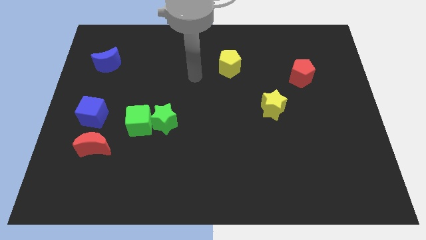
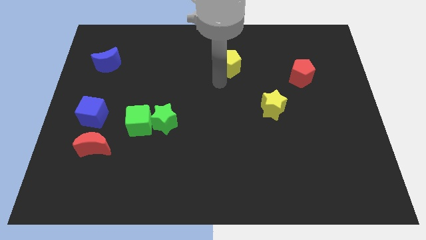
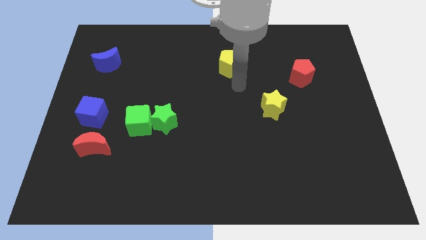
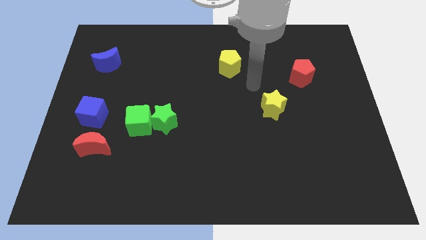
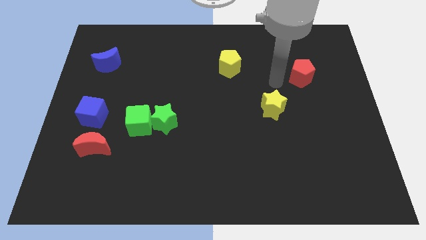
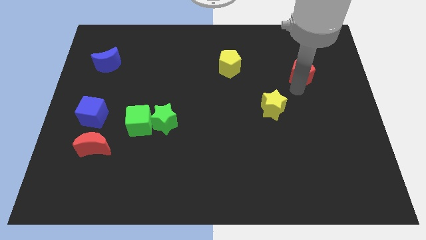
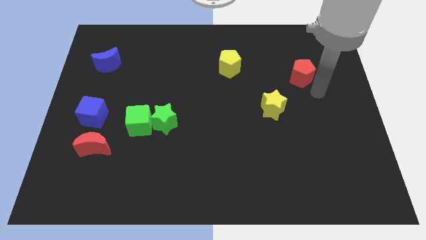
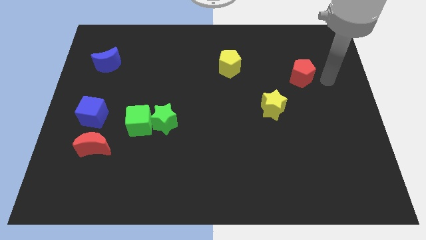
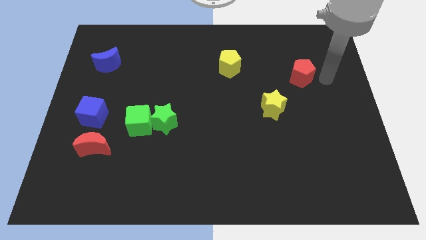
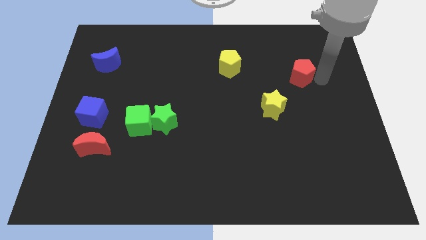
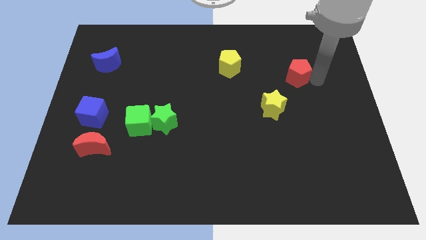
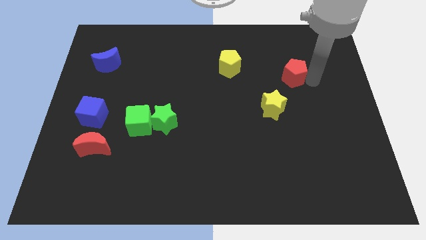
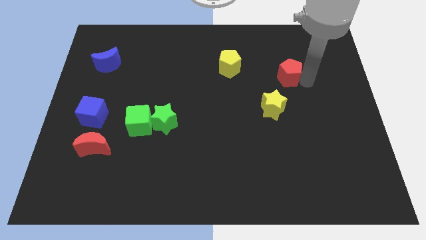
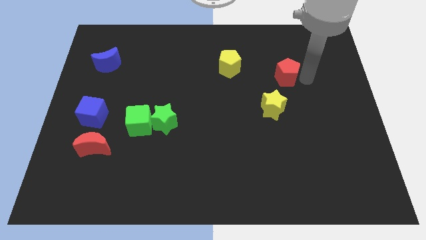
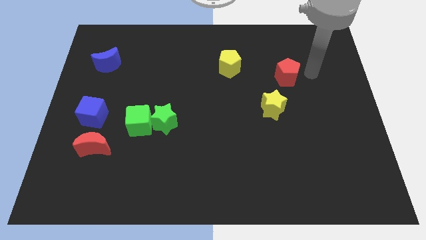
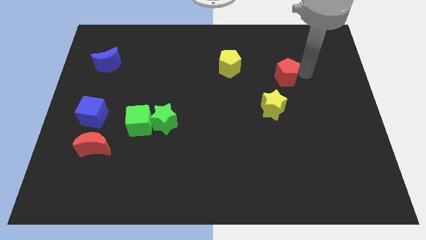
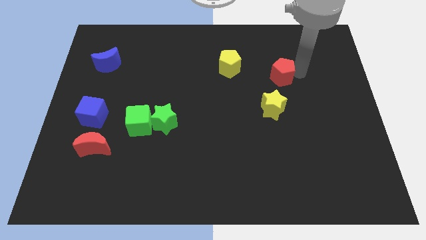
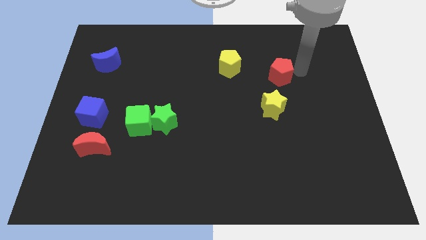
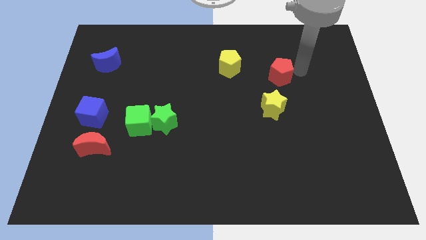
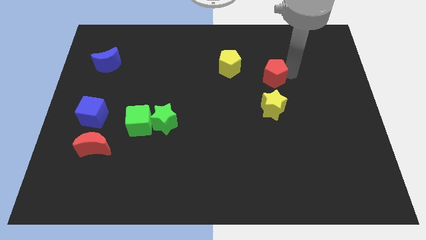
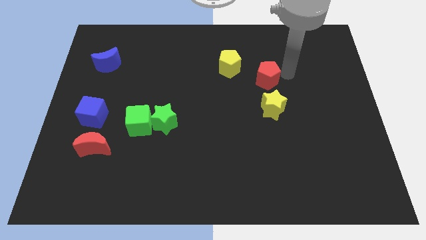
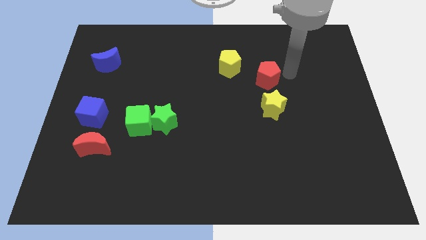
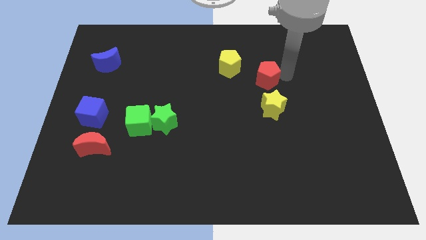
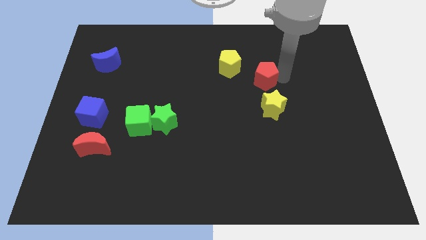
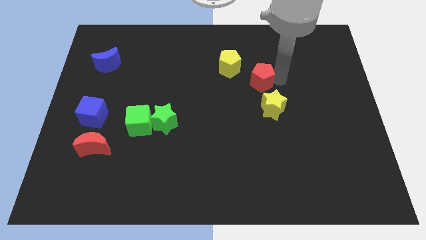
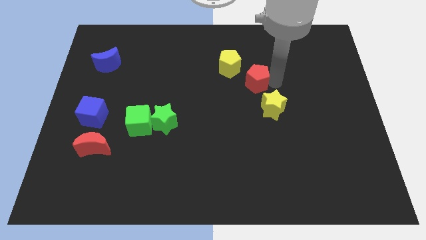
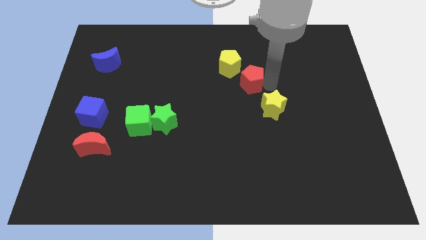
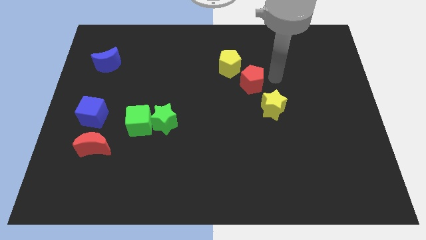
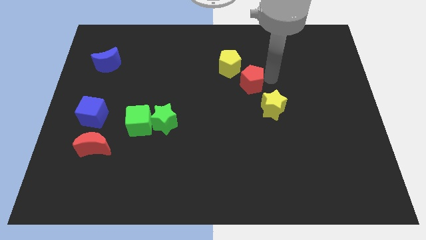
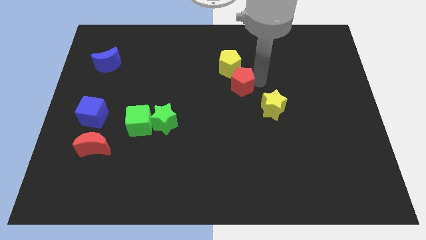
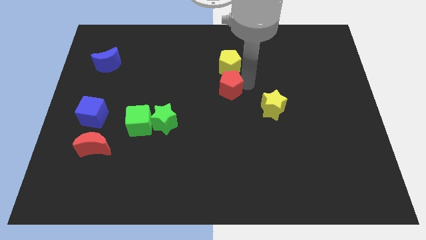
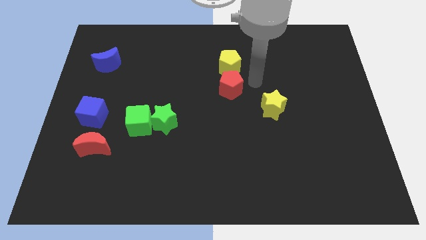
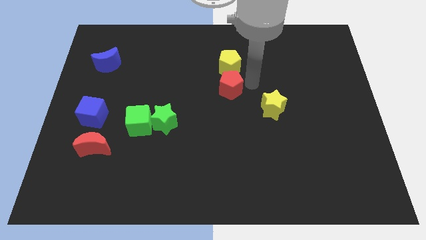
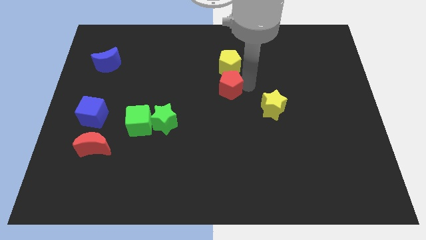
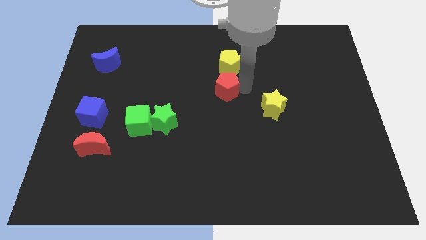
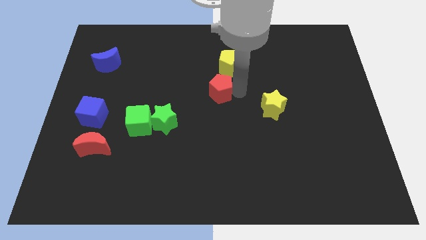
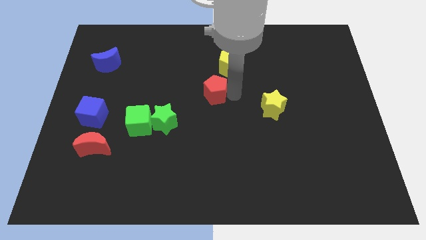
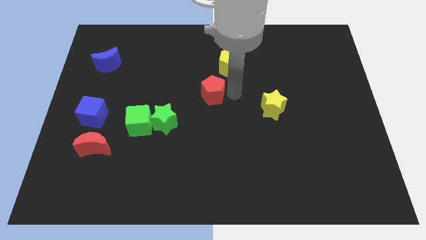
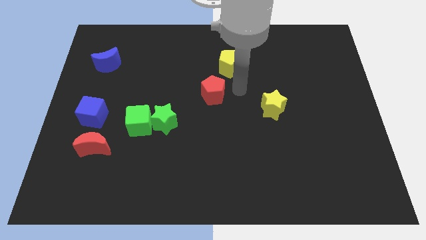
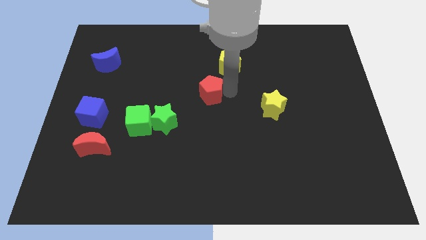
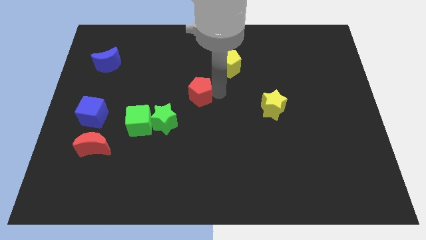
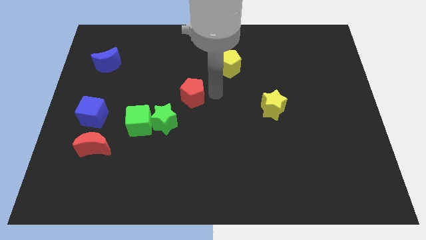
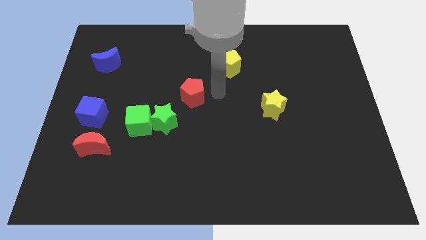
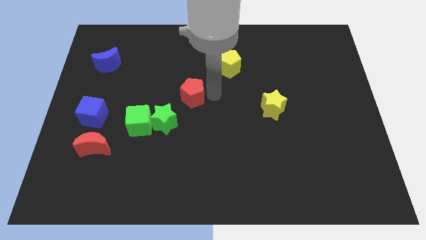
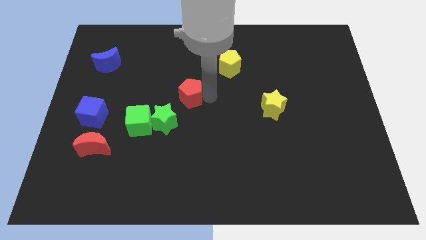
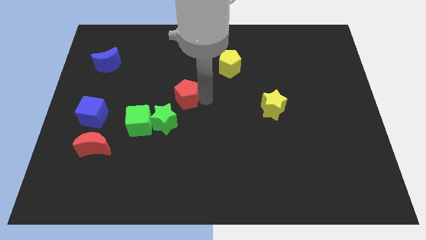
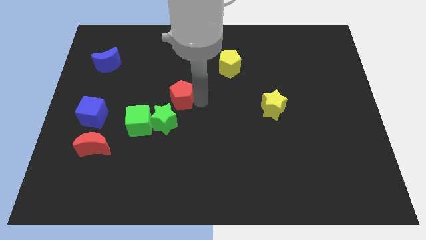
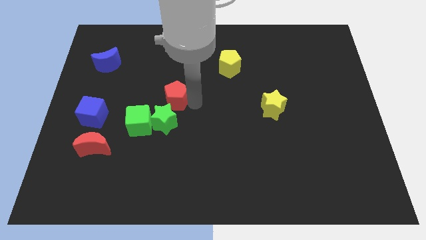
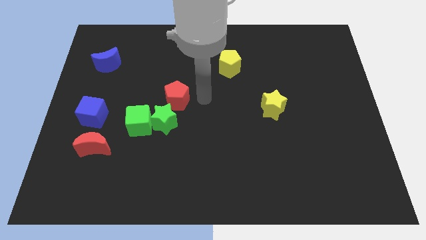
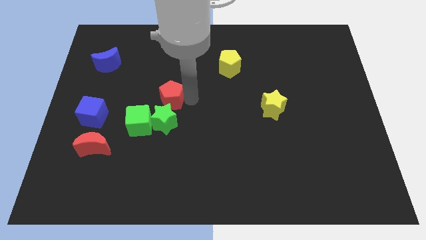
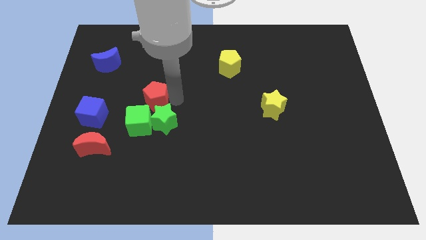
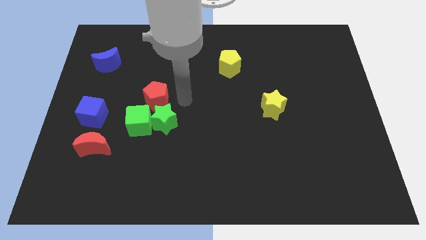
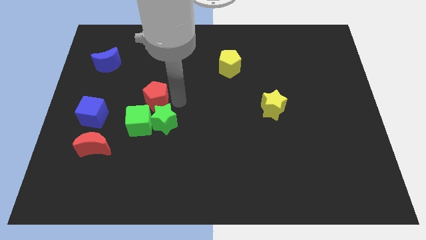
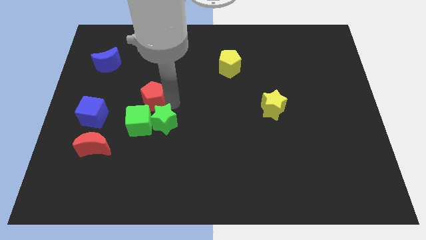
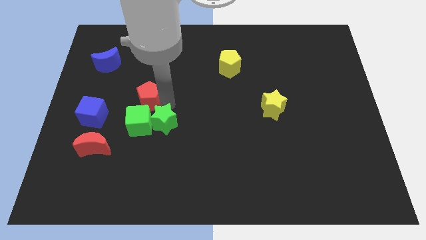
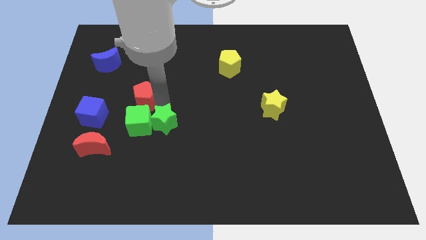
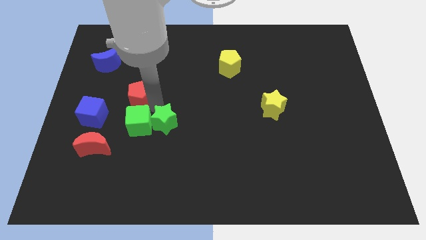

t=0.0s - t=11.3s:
put the red pentagon to the top right of the blue cube

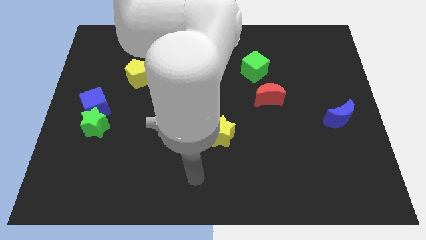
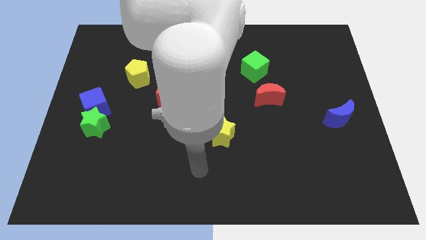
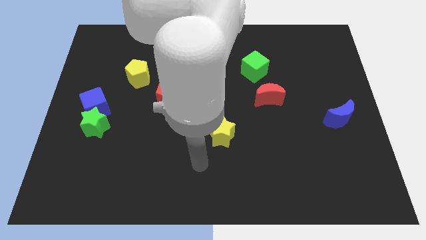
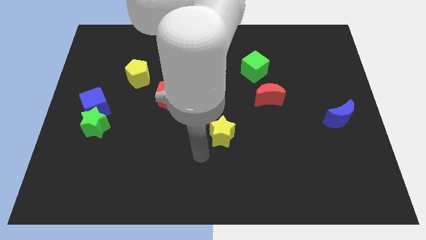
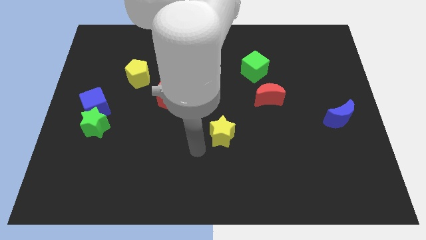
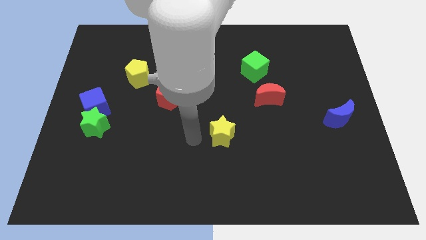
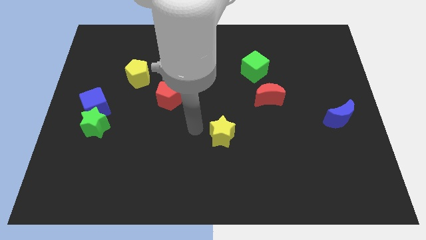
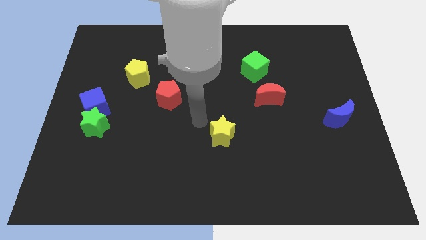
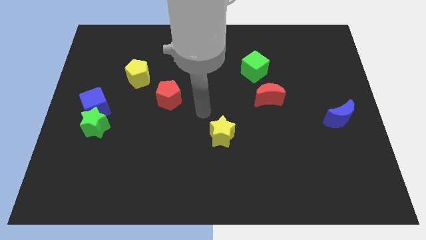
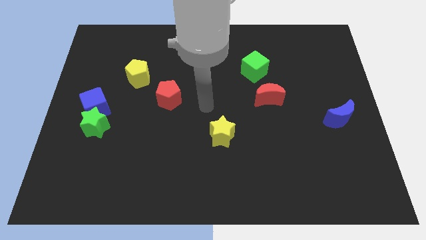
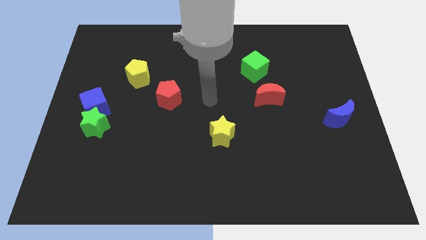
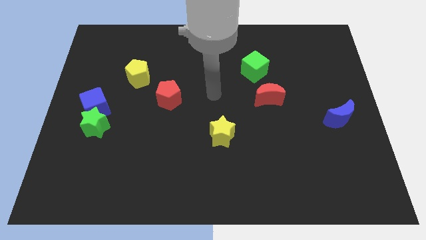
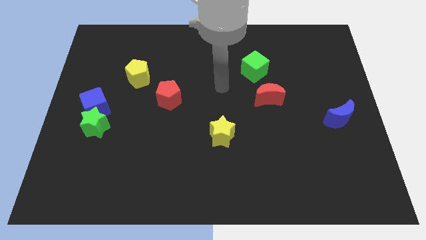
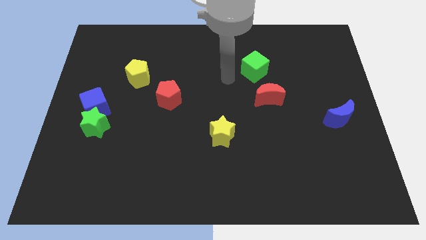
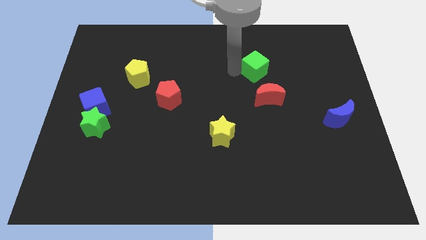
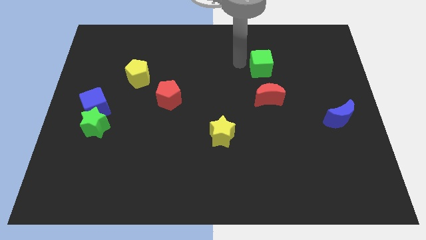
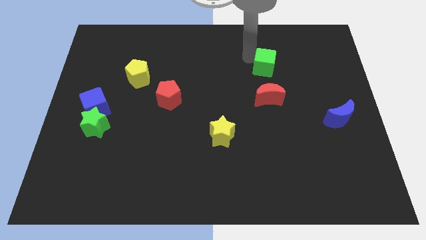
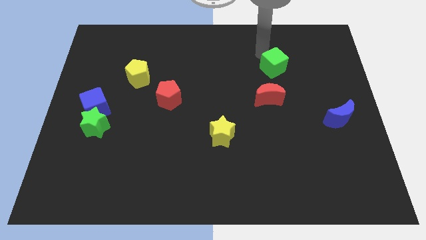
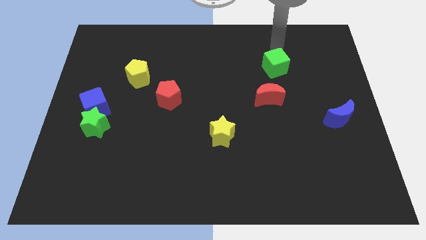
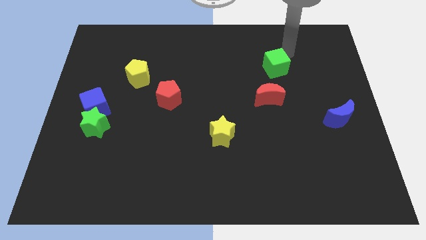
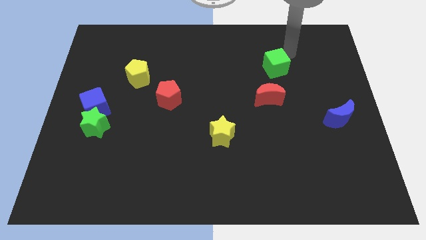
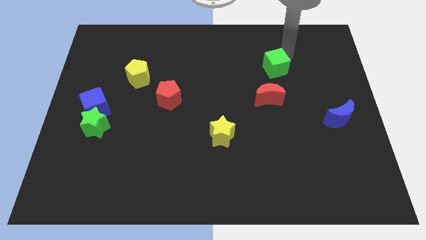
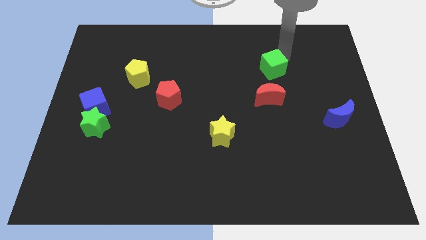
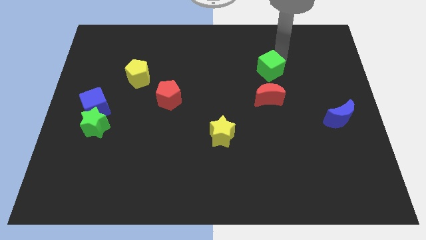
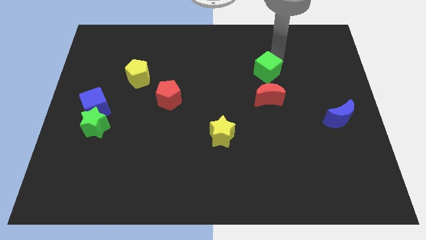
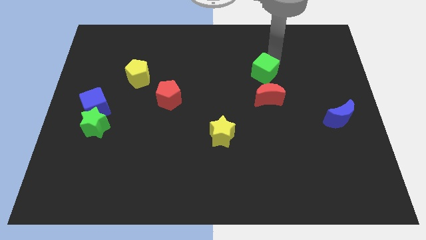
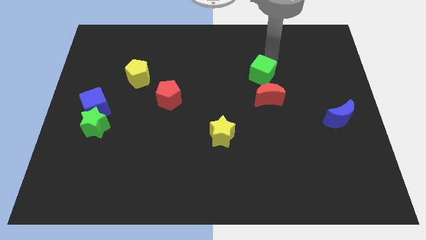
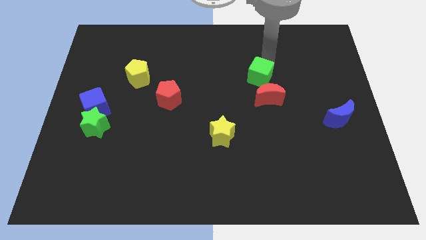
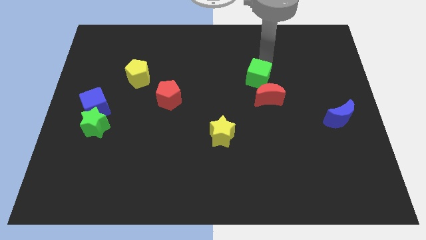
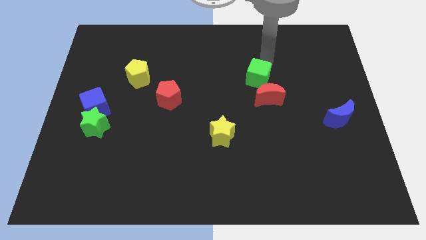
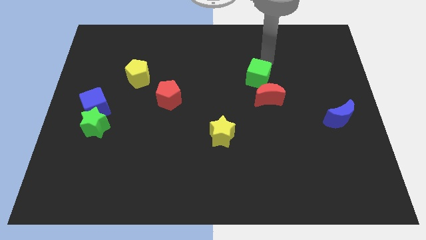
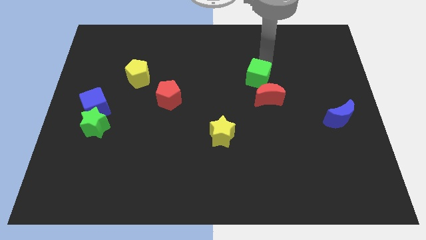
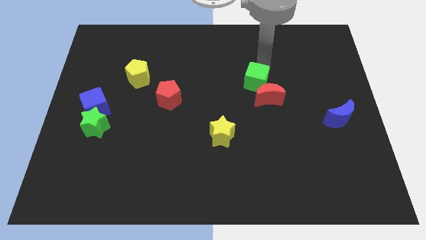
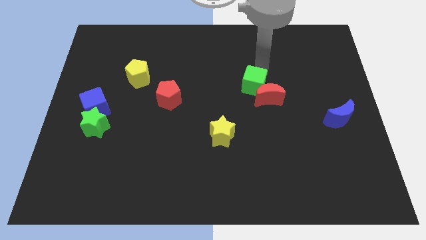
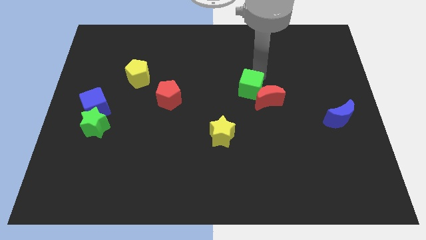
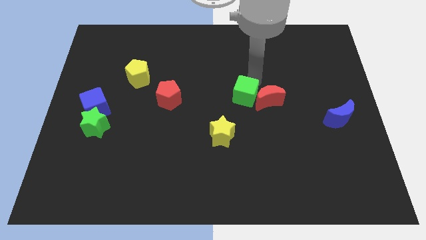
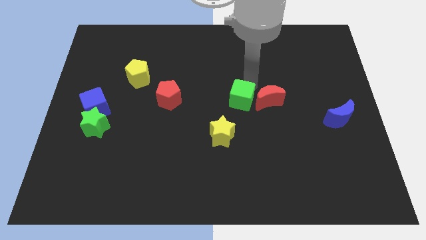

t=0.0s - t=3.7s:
slide the green cube to the bottom left of the red moon
